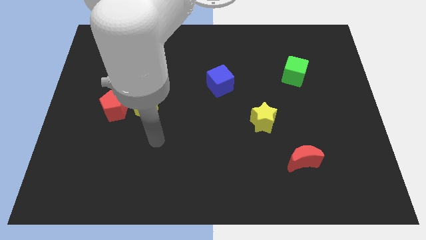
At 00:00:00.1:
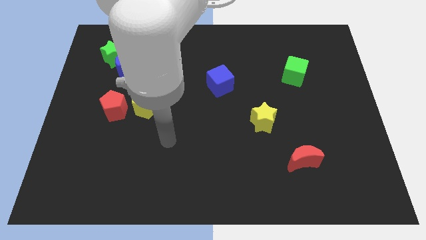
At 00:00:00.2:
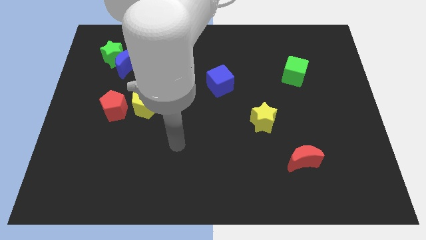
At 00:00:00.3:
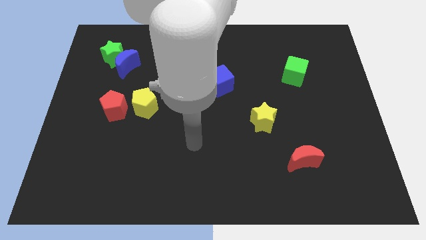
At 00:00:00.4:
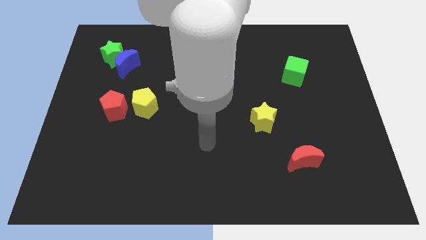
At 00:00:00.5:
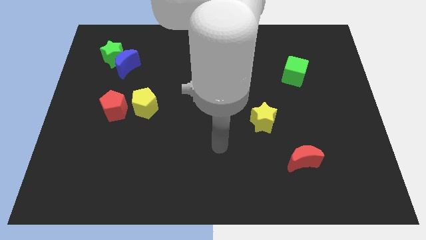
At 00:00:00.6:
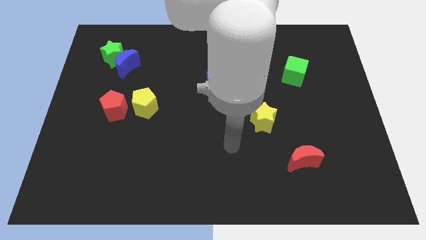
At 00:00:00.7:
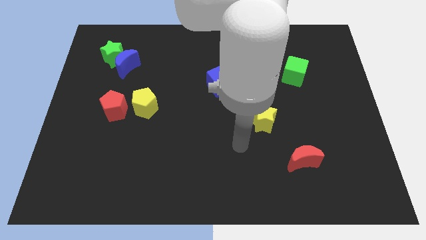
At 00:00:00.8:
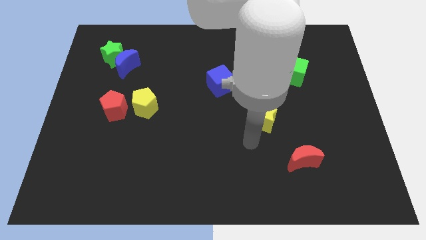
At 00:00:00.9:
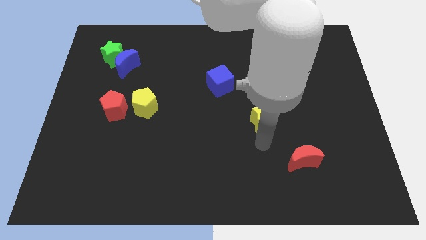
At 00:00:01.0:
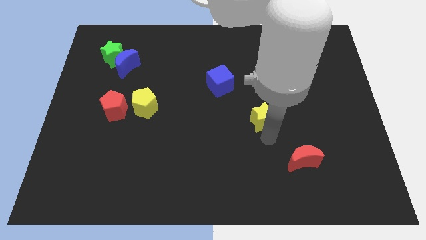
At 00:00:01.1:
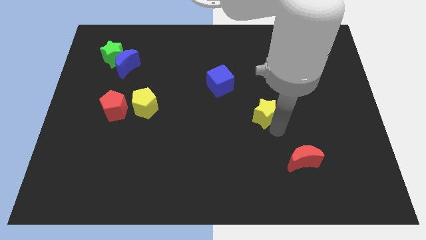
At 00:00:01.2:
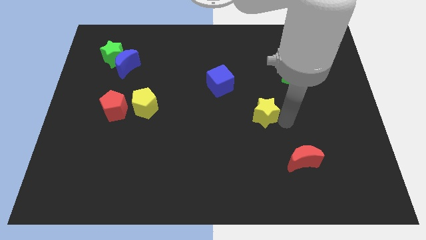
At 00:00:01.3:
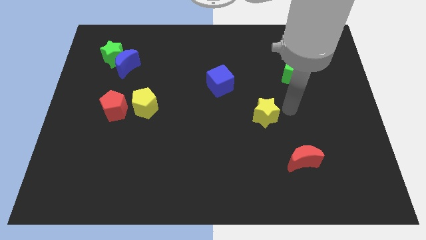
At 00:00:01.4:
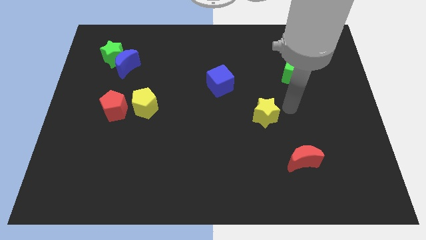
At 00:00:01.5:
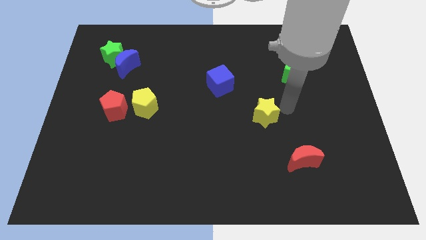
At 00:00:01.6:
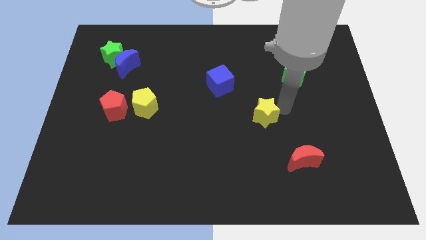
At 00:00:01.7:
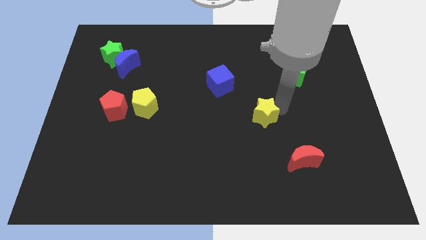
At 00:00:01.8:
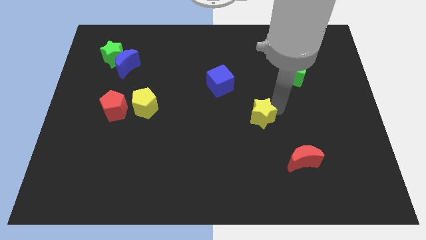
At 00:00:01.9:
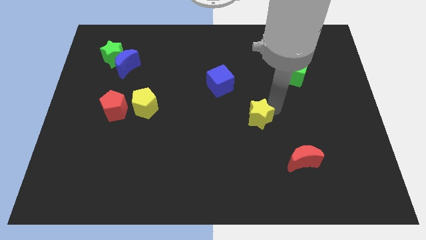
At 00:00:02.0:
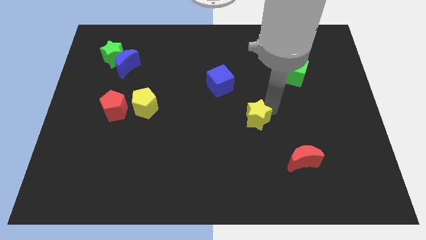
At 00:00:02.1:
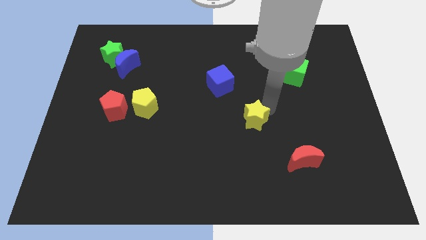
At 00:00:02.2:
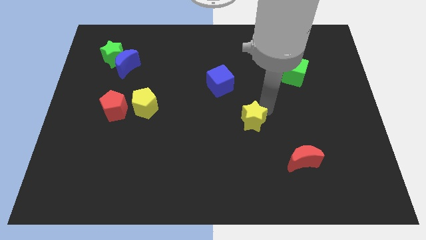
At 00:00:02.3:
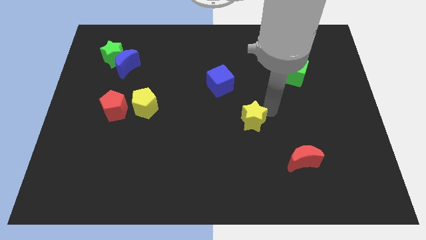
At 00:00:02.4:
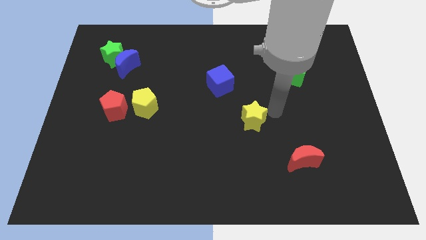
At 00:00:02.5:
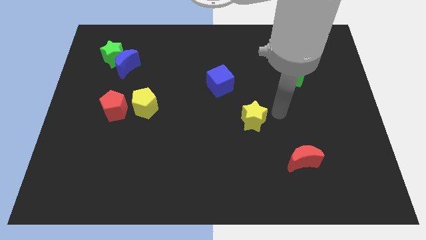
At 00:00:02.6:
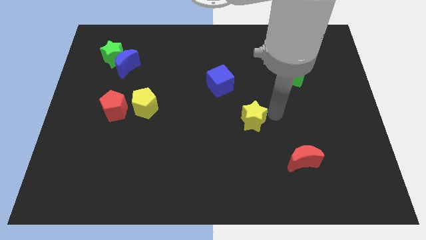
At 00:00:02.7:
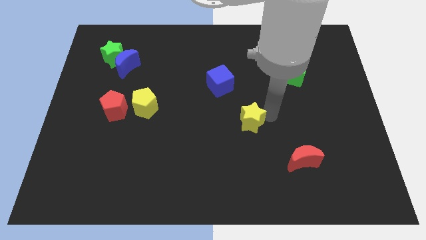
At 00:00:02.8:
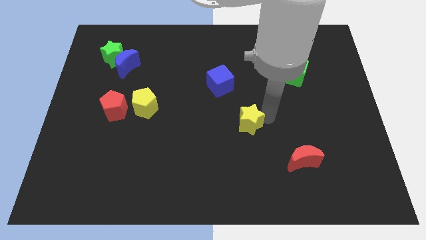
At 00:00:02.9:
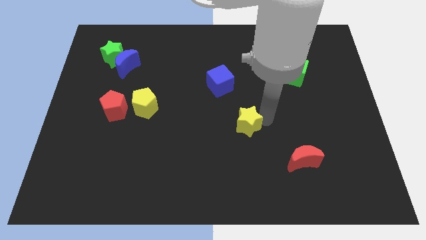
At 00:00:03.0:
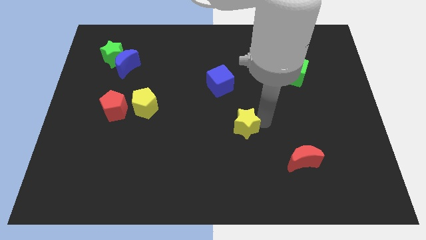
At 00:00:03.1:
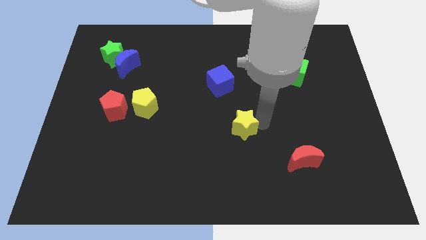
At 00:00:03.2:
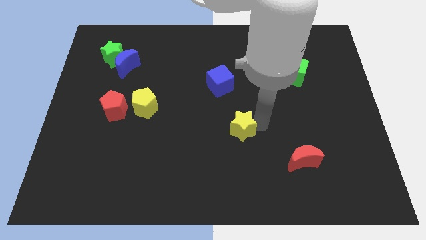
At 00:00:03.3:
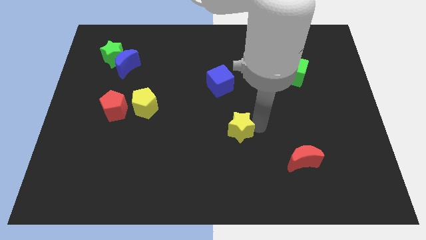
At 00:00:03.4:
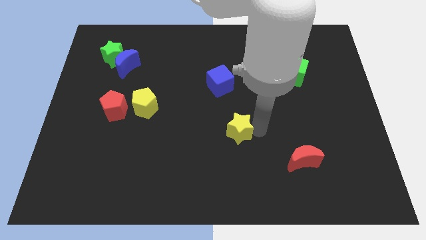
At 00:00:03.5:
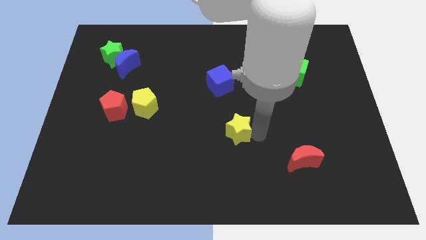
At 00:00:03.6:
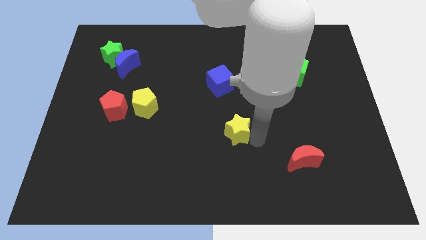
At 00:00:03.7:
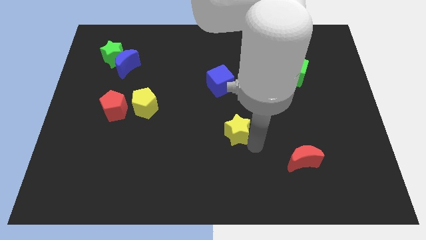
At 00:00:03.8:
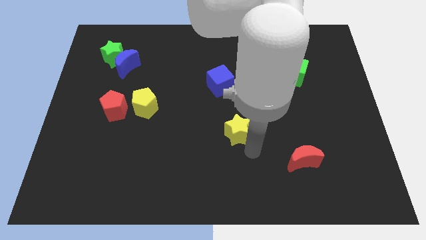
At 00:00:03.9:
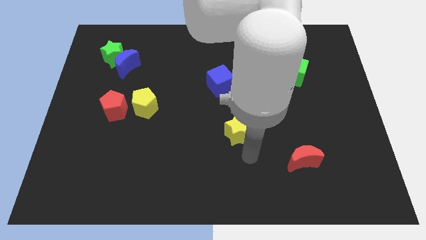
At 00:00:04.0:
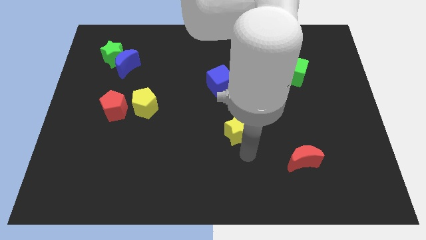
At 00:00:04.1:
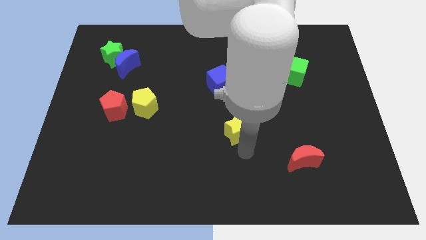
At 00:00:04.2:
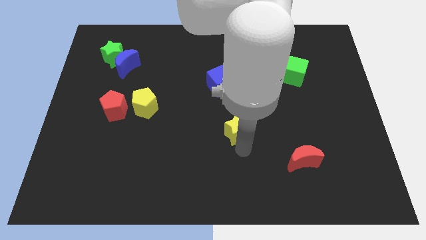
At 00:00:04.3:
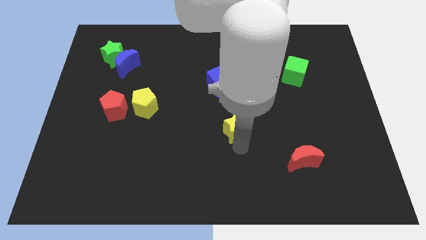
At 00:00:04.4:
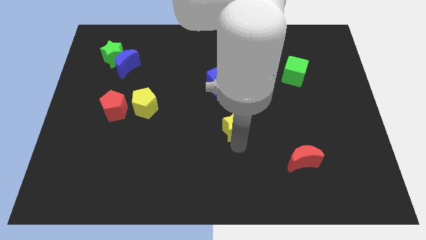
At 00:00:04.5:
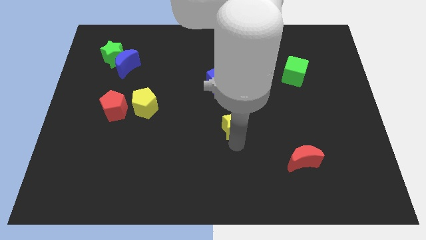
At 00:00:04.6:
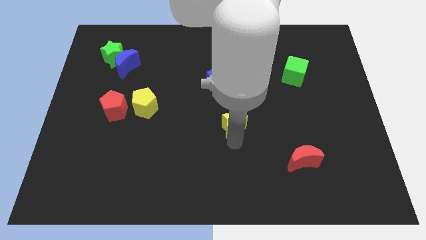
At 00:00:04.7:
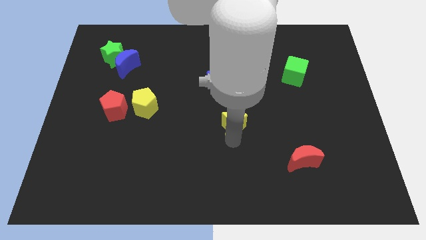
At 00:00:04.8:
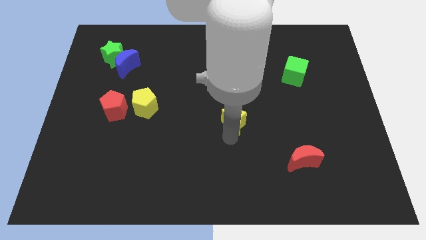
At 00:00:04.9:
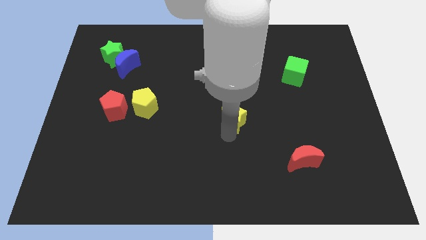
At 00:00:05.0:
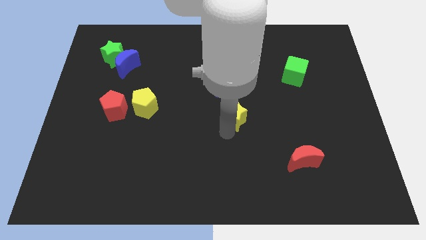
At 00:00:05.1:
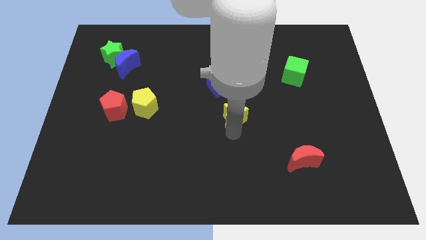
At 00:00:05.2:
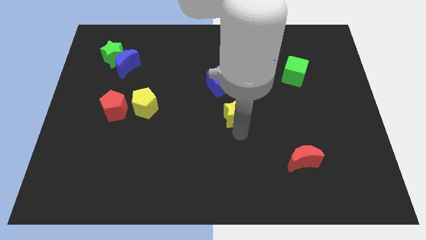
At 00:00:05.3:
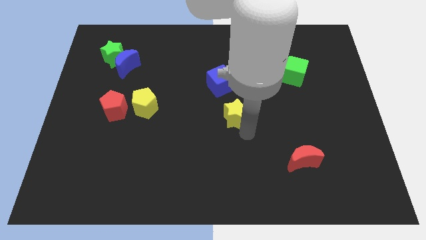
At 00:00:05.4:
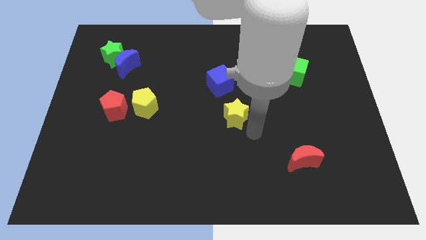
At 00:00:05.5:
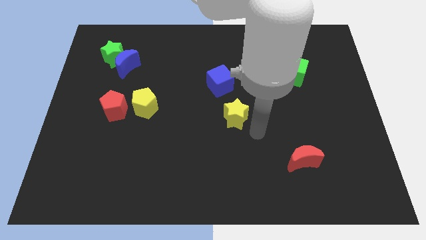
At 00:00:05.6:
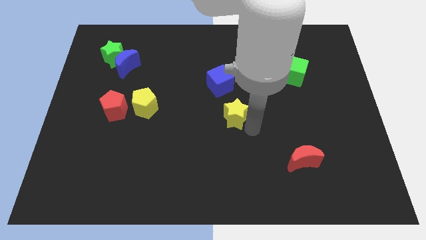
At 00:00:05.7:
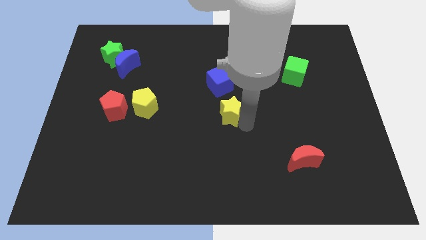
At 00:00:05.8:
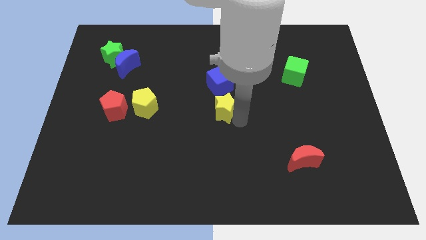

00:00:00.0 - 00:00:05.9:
push the yellow star upwards and then left somewhat

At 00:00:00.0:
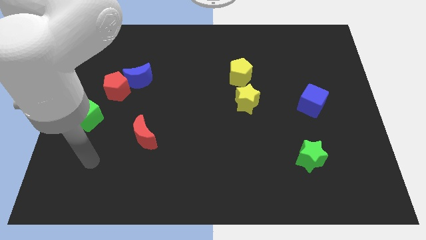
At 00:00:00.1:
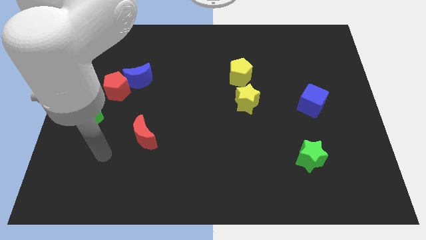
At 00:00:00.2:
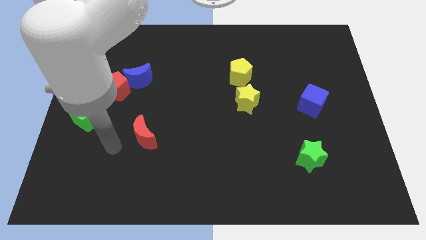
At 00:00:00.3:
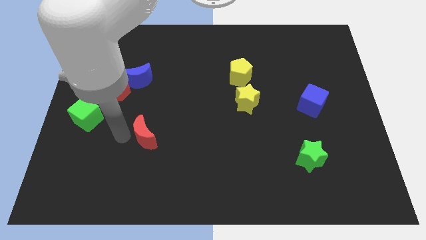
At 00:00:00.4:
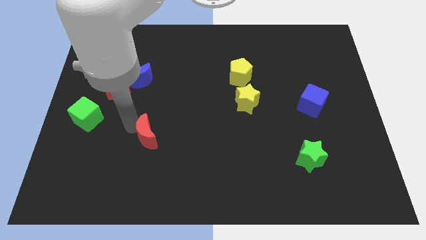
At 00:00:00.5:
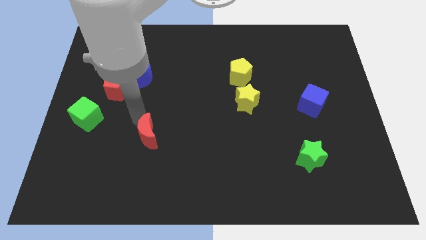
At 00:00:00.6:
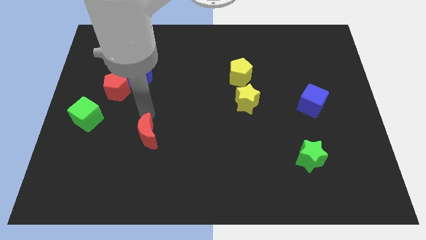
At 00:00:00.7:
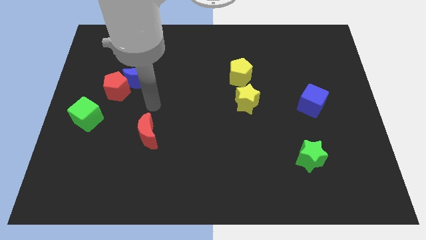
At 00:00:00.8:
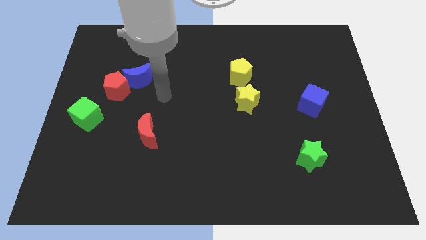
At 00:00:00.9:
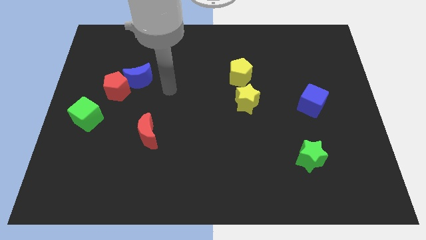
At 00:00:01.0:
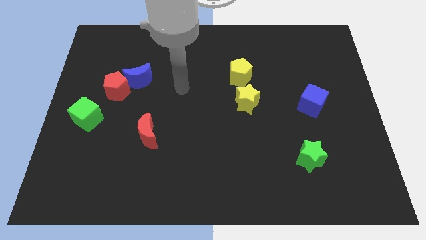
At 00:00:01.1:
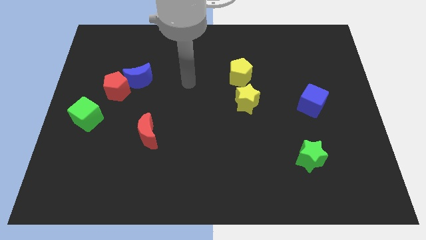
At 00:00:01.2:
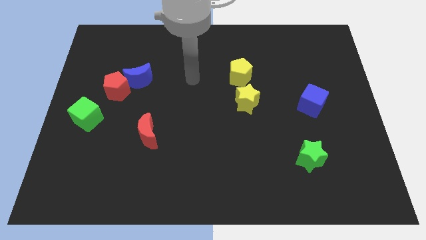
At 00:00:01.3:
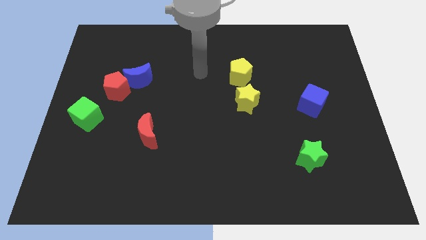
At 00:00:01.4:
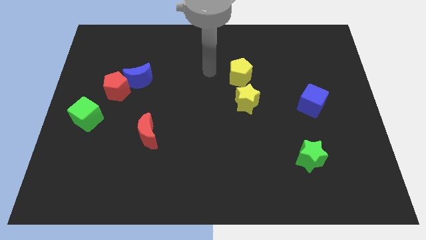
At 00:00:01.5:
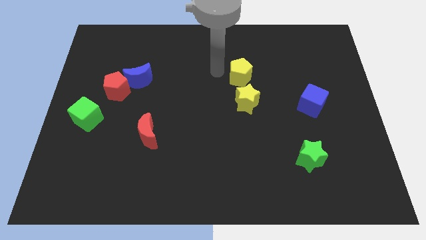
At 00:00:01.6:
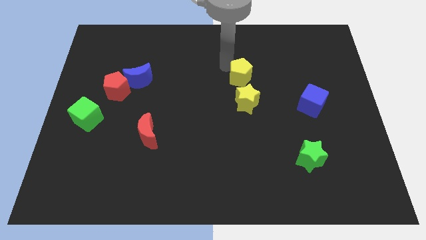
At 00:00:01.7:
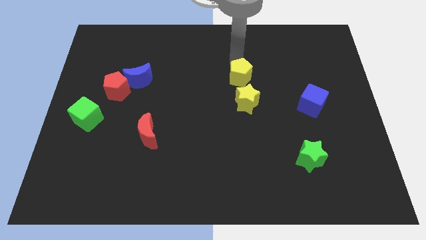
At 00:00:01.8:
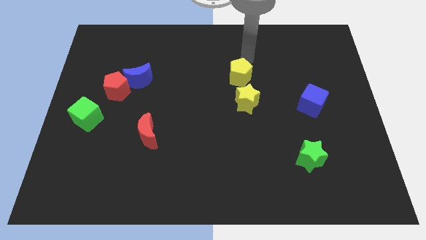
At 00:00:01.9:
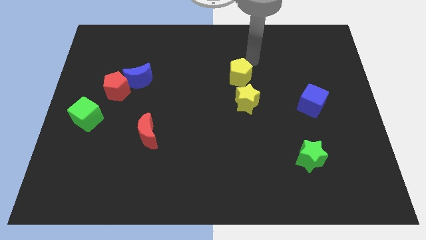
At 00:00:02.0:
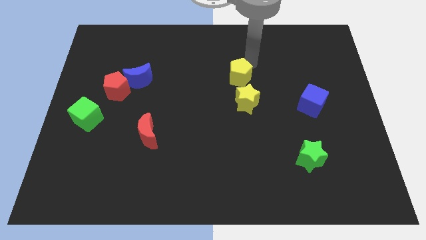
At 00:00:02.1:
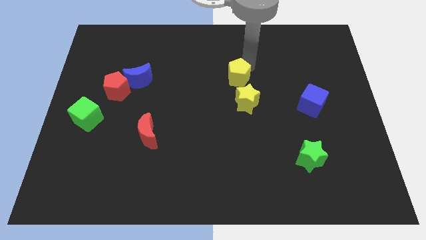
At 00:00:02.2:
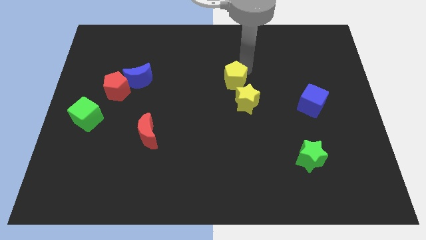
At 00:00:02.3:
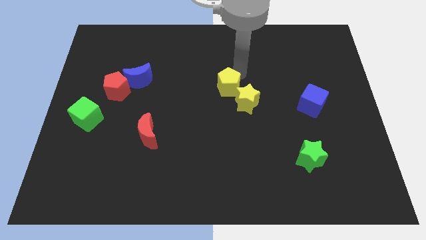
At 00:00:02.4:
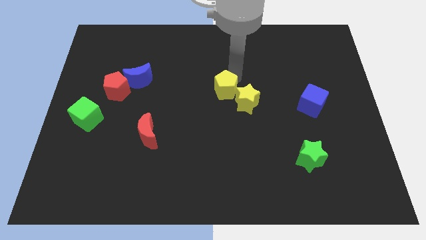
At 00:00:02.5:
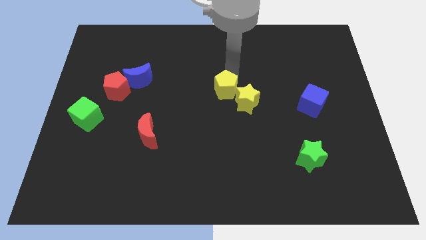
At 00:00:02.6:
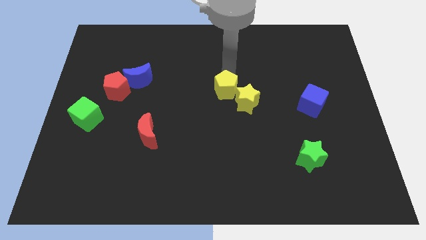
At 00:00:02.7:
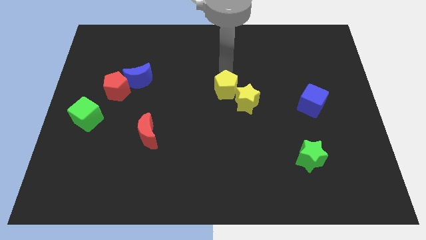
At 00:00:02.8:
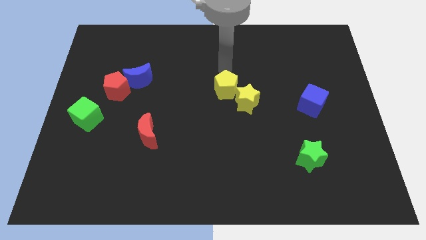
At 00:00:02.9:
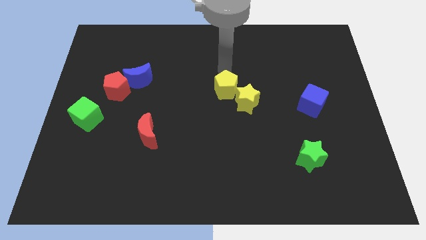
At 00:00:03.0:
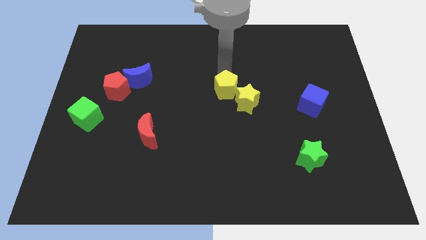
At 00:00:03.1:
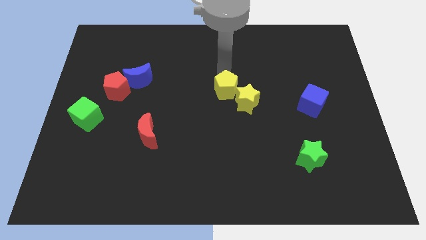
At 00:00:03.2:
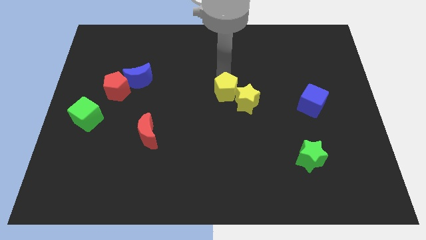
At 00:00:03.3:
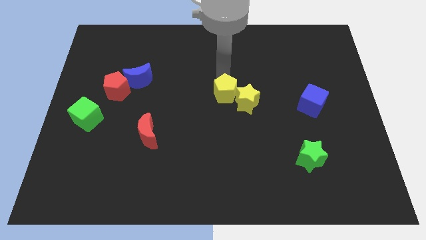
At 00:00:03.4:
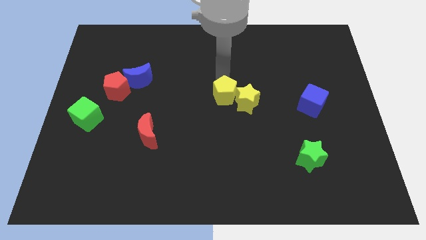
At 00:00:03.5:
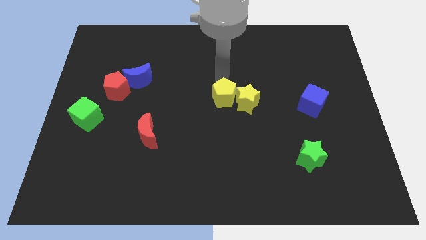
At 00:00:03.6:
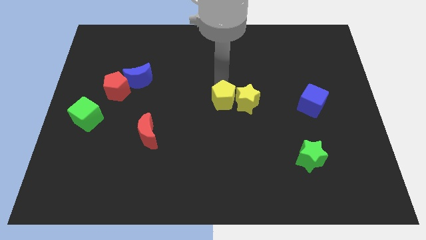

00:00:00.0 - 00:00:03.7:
slightly slide the yellow pentagon down
